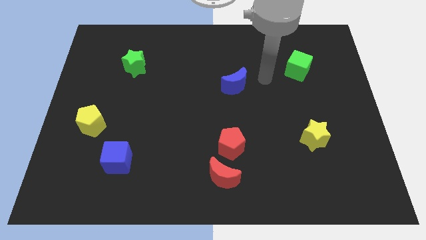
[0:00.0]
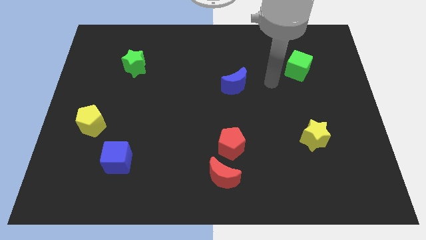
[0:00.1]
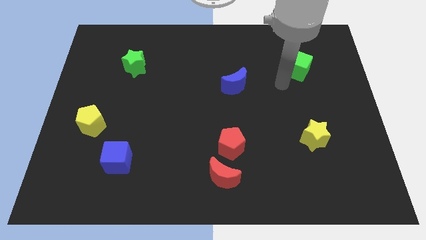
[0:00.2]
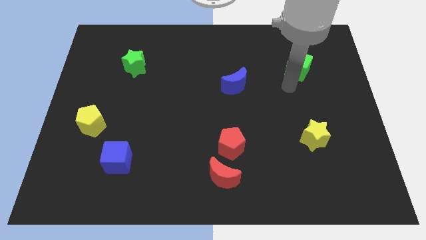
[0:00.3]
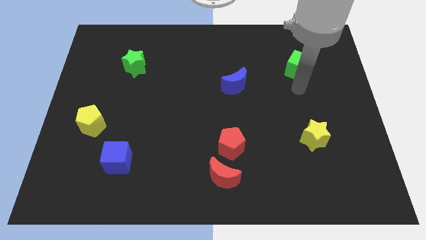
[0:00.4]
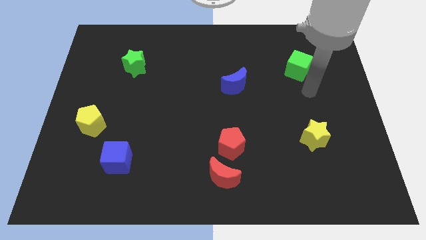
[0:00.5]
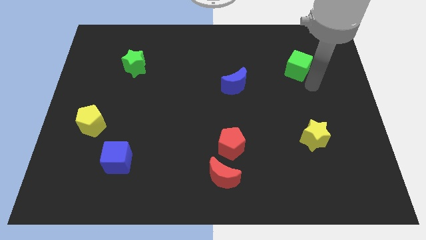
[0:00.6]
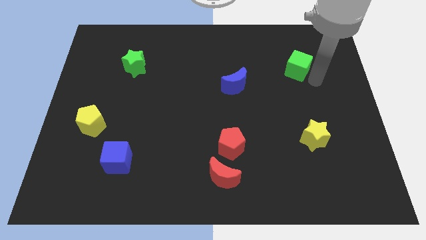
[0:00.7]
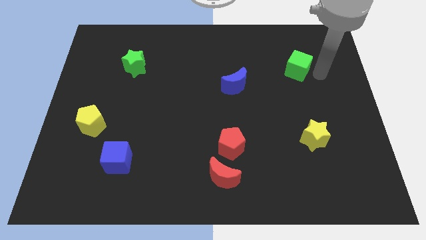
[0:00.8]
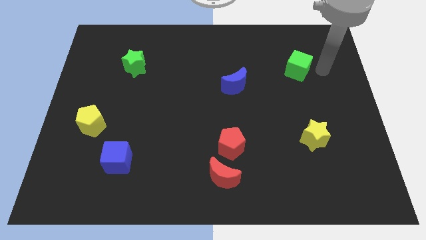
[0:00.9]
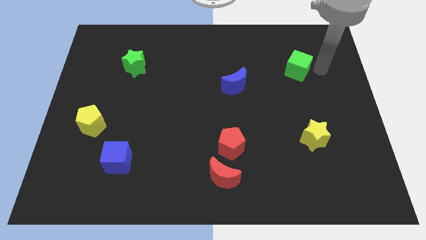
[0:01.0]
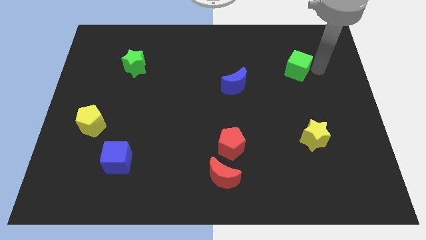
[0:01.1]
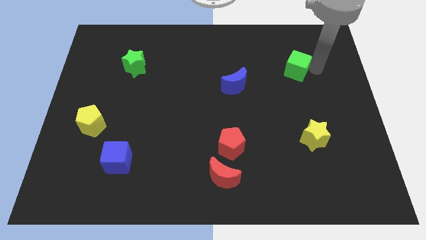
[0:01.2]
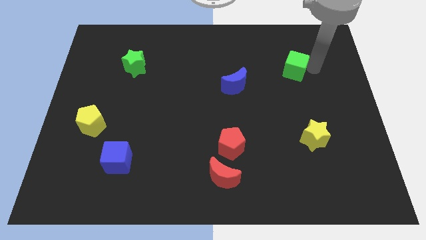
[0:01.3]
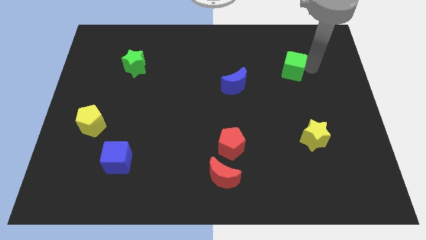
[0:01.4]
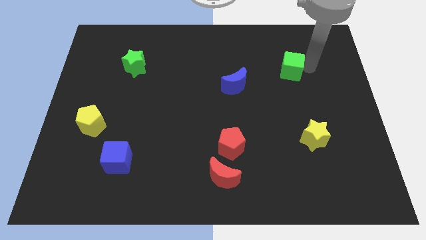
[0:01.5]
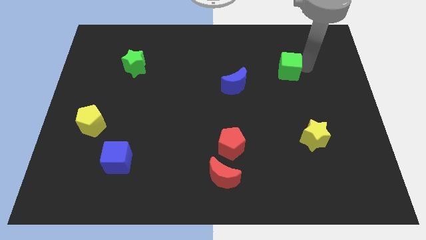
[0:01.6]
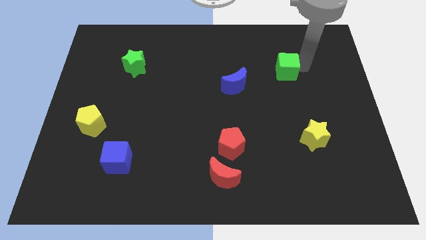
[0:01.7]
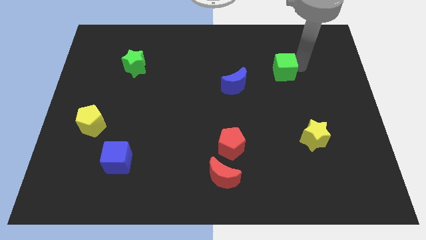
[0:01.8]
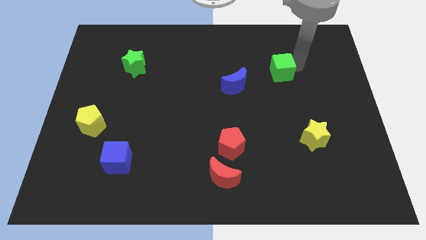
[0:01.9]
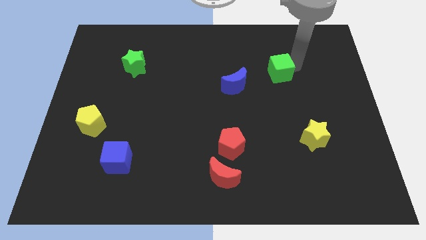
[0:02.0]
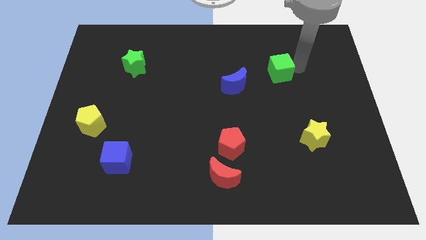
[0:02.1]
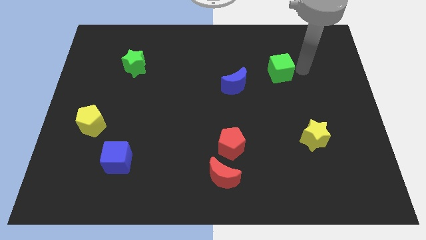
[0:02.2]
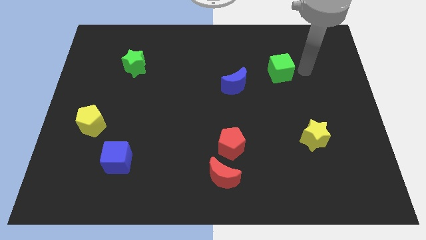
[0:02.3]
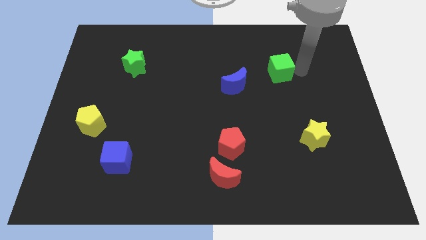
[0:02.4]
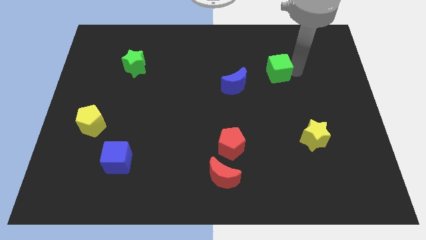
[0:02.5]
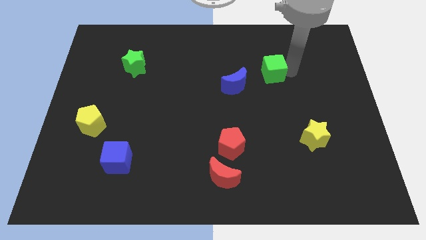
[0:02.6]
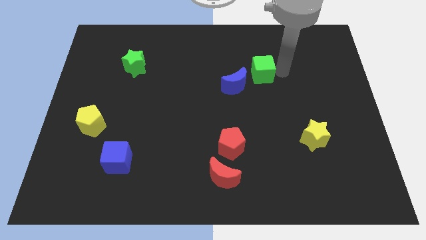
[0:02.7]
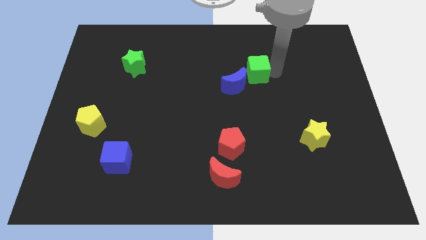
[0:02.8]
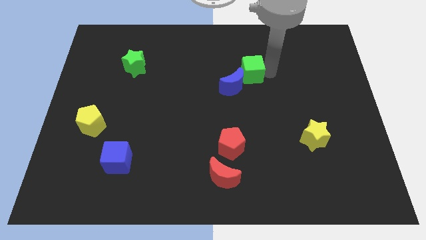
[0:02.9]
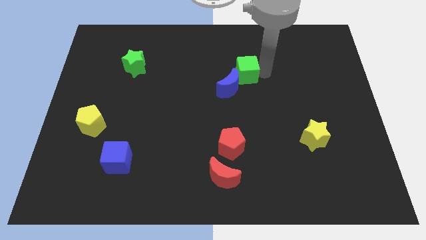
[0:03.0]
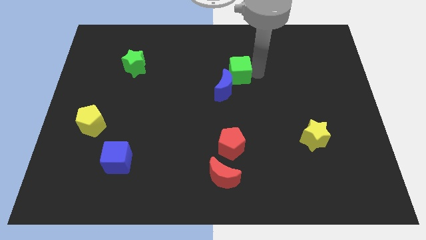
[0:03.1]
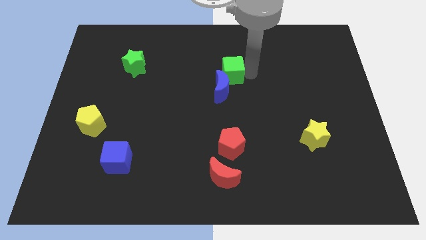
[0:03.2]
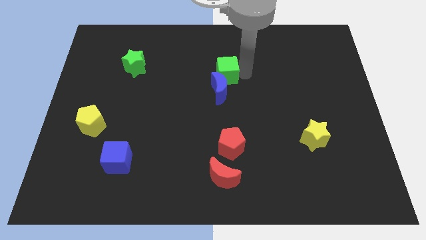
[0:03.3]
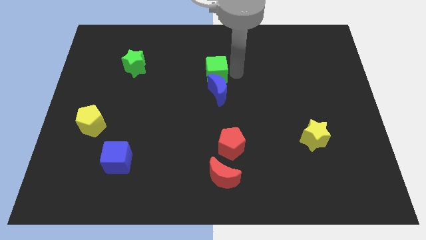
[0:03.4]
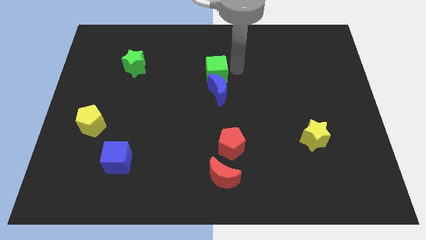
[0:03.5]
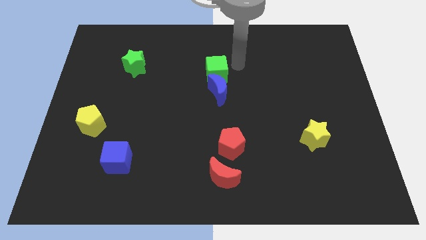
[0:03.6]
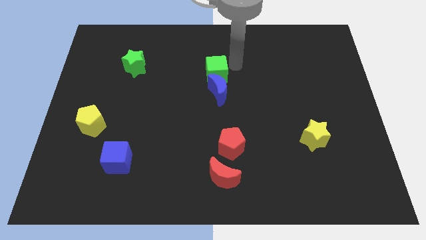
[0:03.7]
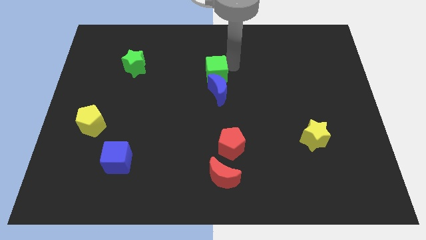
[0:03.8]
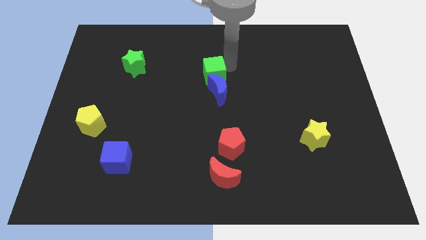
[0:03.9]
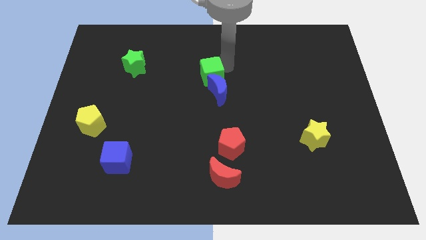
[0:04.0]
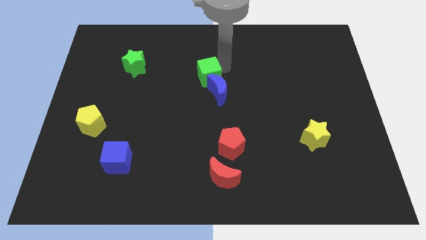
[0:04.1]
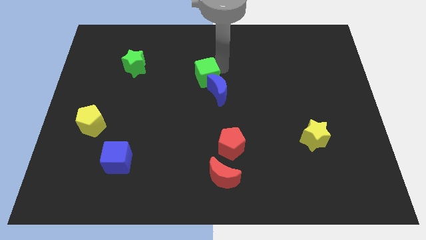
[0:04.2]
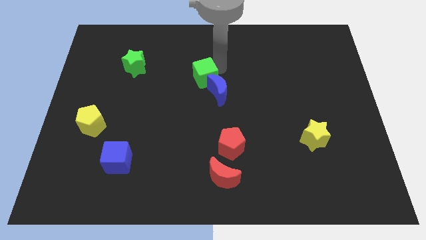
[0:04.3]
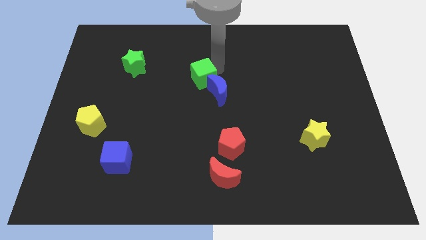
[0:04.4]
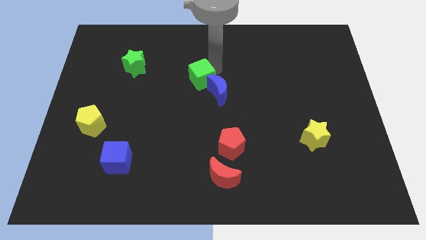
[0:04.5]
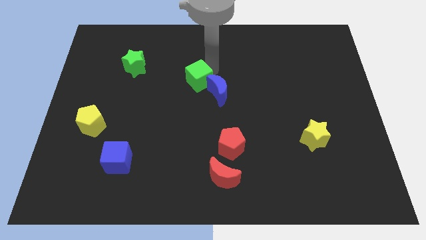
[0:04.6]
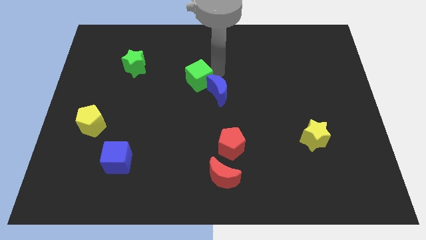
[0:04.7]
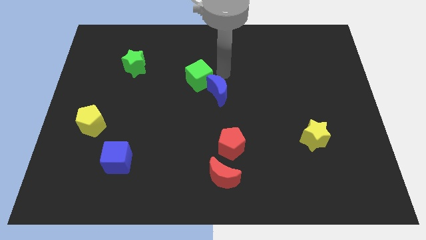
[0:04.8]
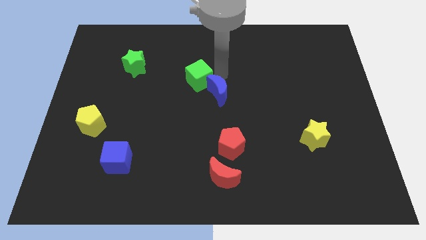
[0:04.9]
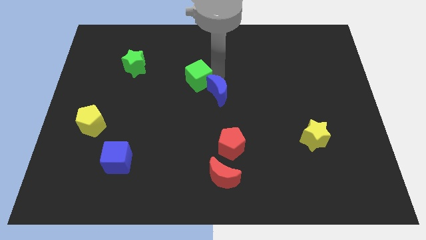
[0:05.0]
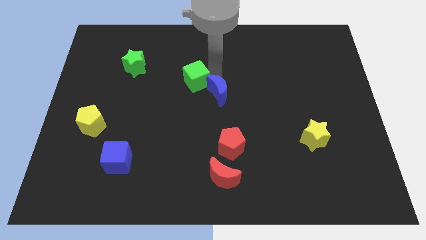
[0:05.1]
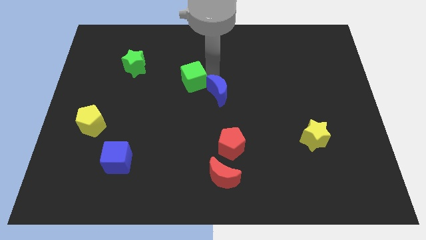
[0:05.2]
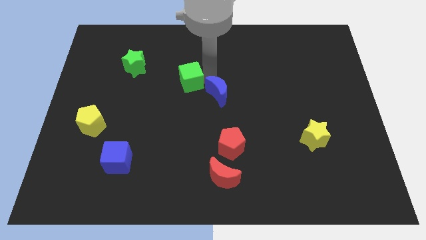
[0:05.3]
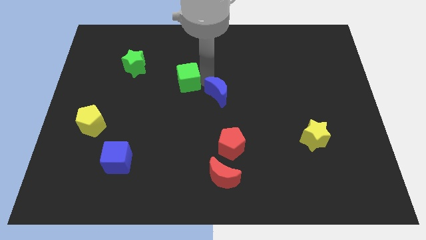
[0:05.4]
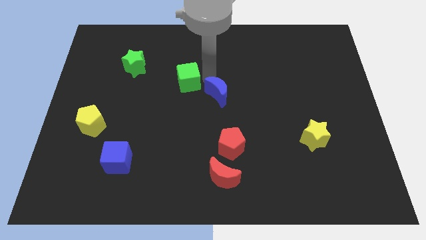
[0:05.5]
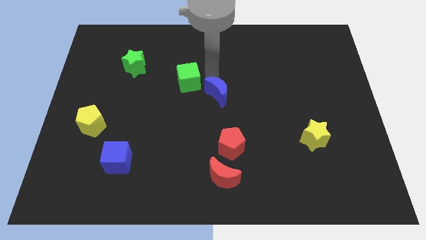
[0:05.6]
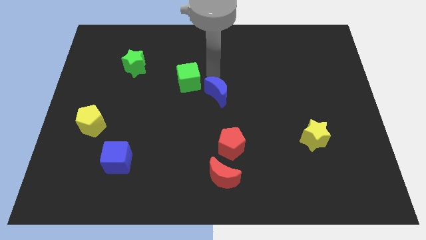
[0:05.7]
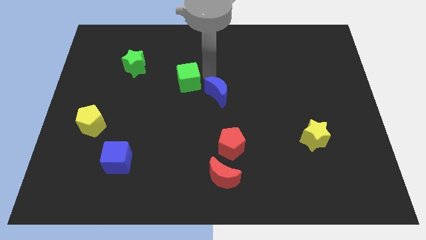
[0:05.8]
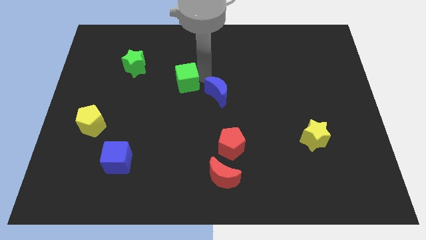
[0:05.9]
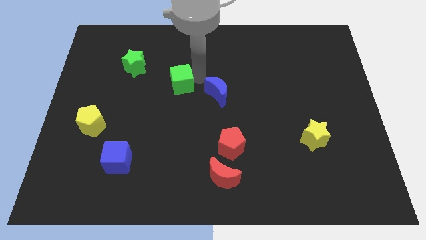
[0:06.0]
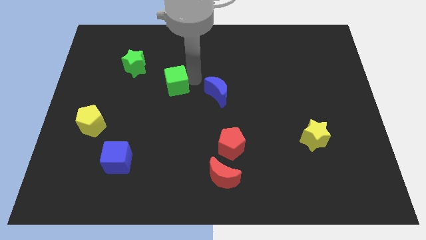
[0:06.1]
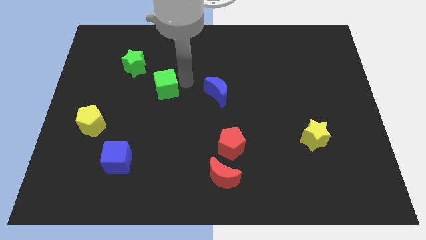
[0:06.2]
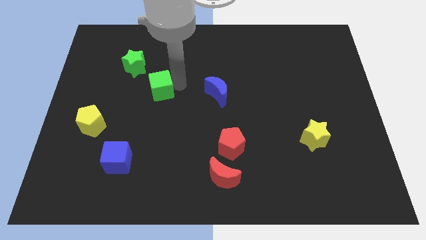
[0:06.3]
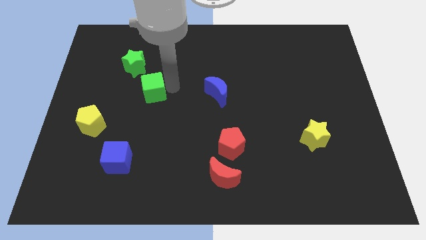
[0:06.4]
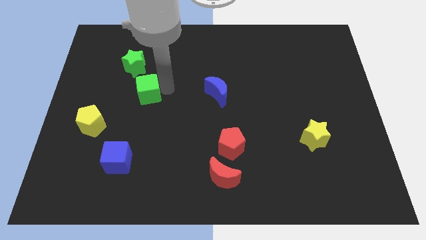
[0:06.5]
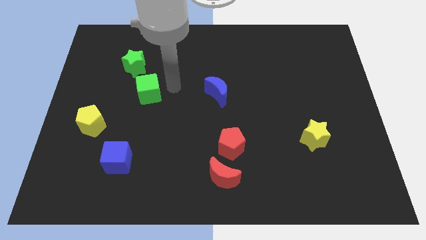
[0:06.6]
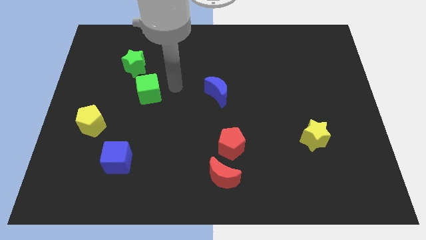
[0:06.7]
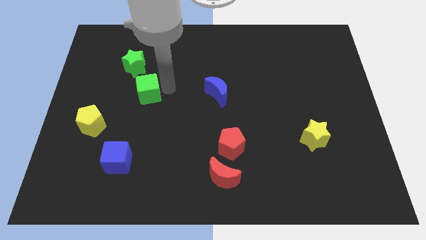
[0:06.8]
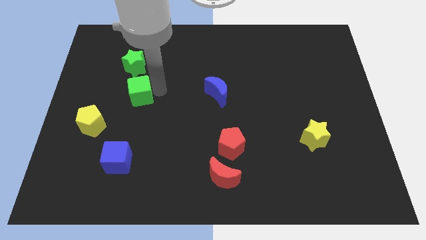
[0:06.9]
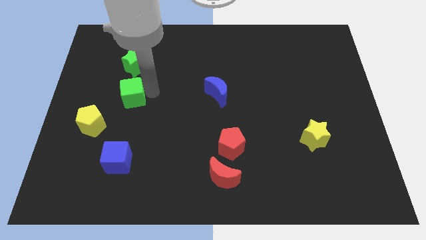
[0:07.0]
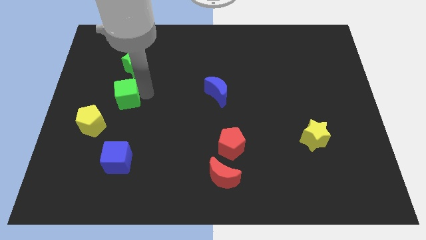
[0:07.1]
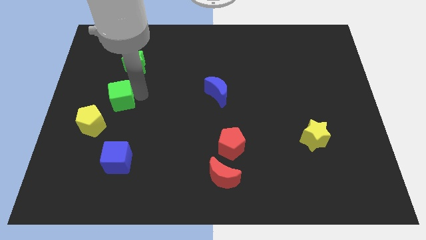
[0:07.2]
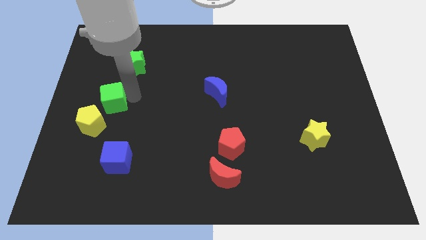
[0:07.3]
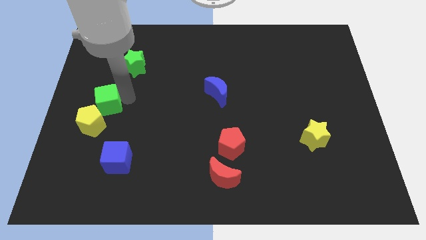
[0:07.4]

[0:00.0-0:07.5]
move the green cube to the left side
